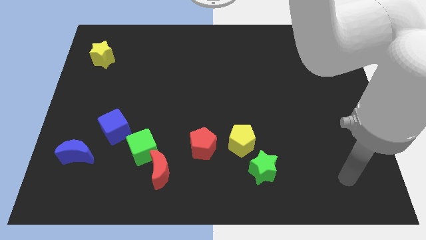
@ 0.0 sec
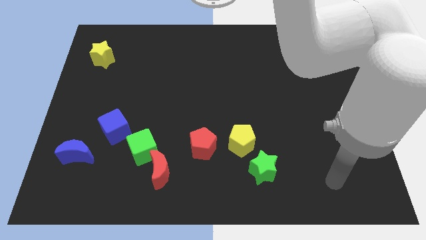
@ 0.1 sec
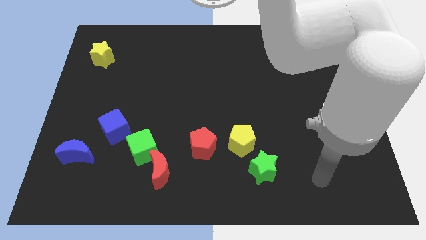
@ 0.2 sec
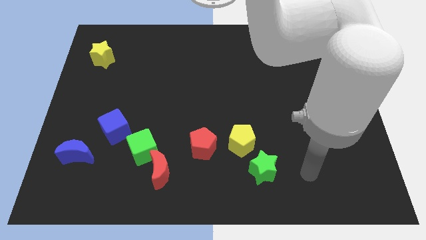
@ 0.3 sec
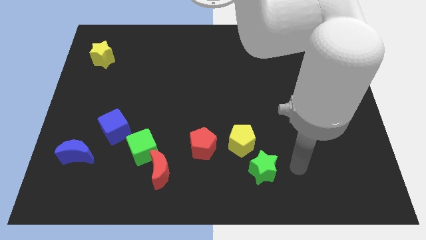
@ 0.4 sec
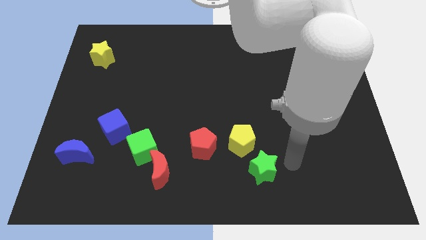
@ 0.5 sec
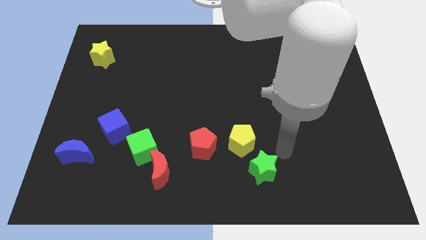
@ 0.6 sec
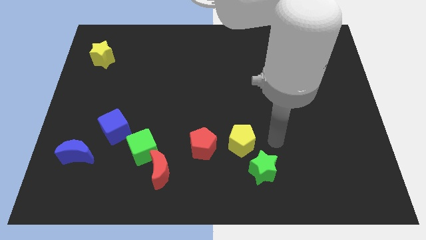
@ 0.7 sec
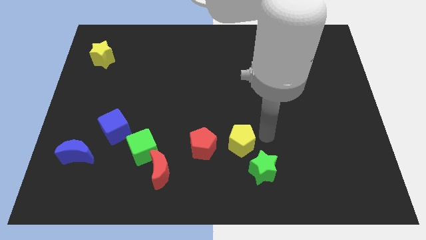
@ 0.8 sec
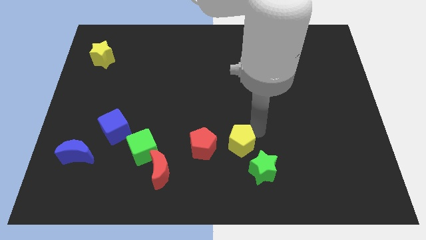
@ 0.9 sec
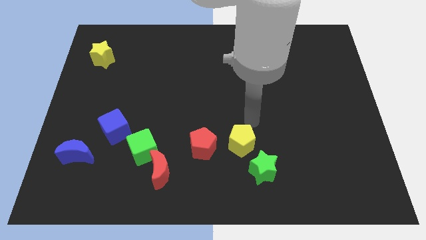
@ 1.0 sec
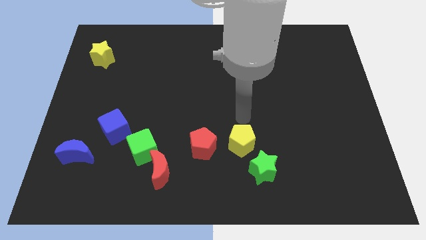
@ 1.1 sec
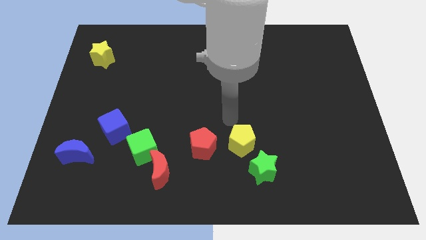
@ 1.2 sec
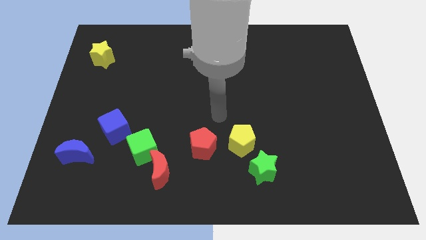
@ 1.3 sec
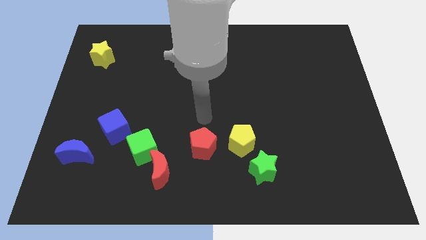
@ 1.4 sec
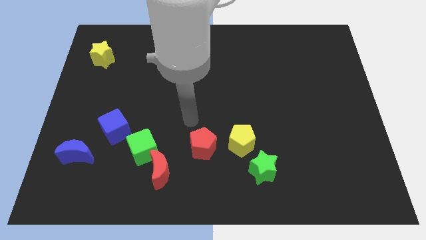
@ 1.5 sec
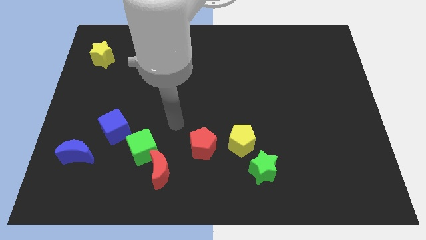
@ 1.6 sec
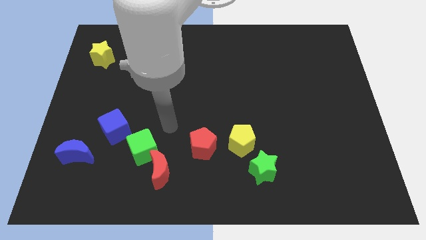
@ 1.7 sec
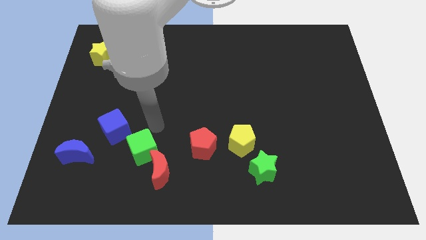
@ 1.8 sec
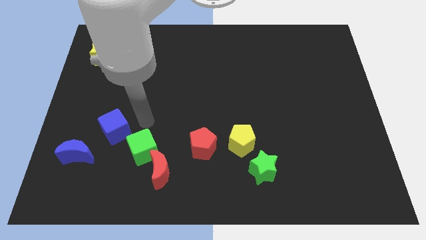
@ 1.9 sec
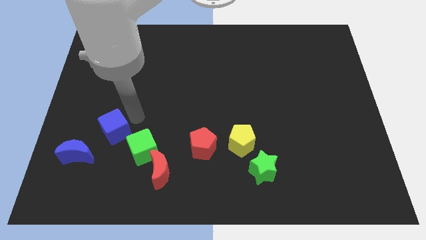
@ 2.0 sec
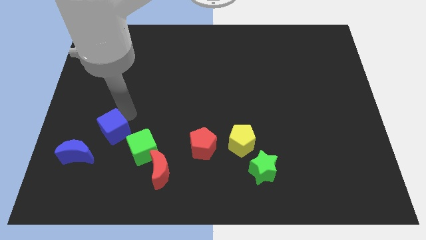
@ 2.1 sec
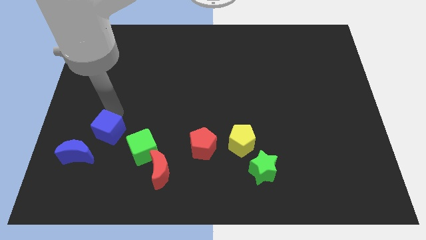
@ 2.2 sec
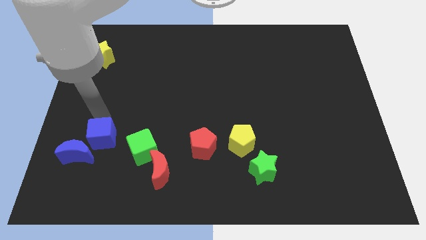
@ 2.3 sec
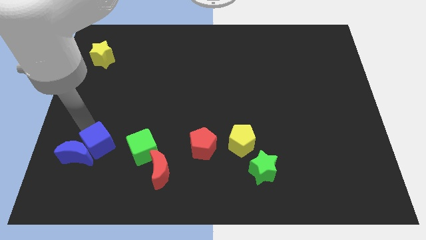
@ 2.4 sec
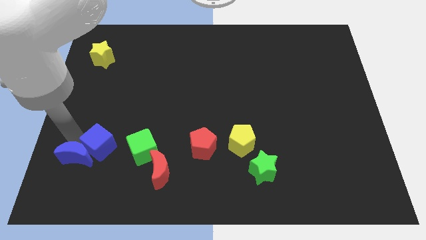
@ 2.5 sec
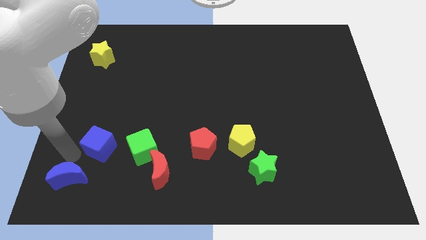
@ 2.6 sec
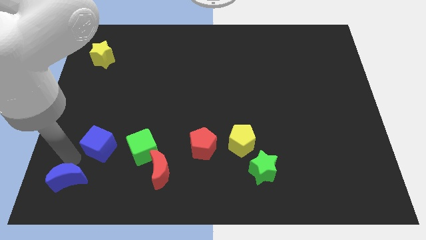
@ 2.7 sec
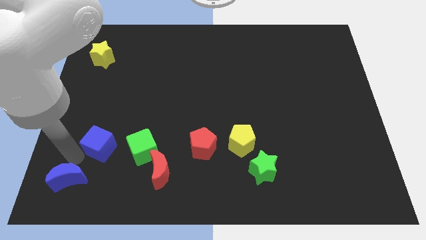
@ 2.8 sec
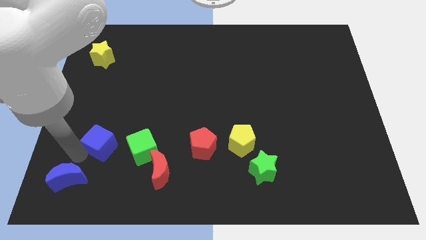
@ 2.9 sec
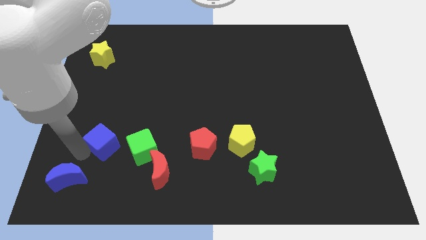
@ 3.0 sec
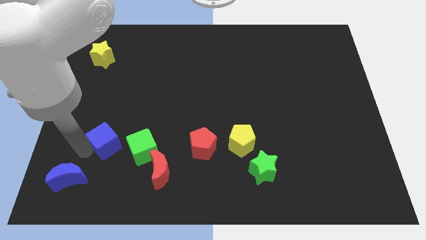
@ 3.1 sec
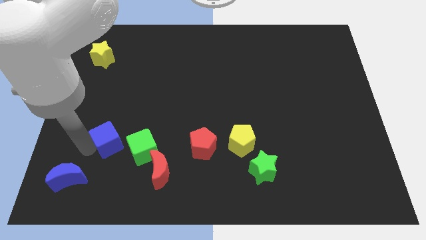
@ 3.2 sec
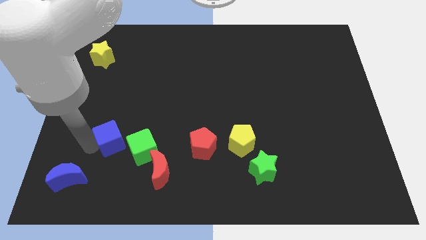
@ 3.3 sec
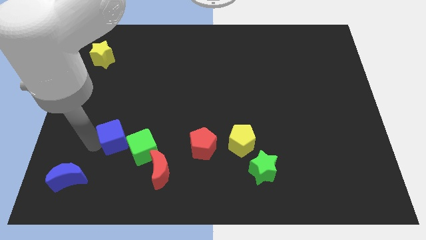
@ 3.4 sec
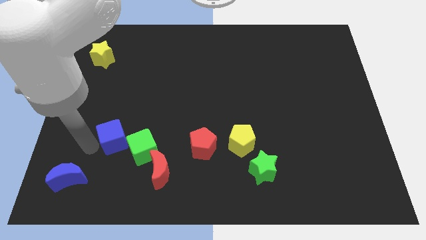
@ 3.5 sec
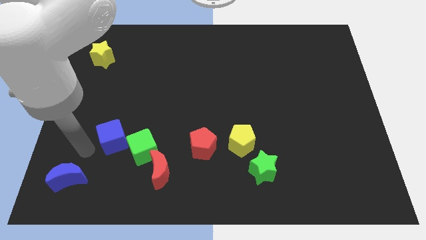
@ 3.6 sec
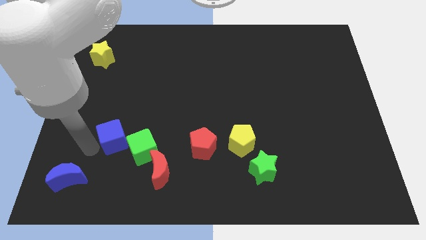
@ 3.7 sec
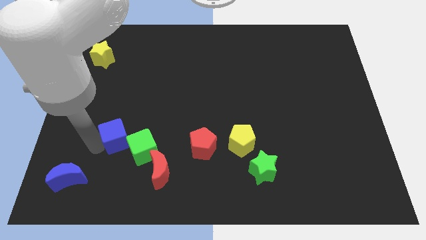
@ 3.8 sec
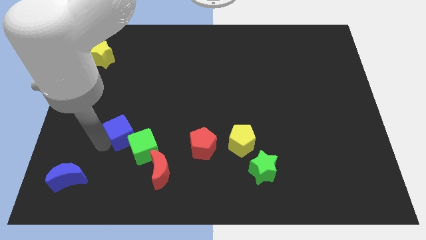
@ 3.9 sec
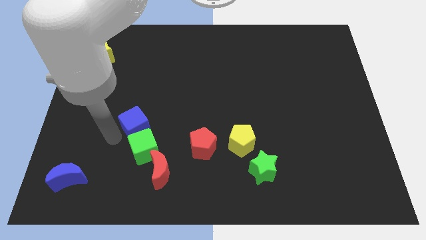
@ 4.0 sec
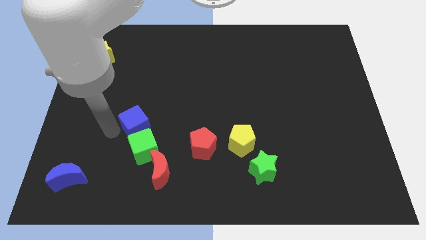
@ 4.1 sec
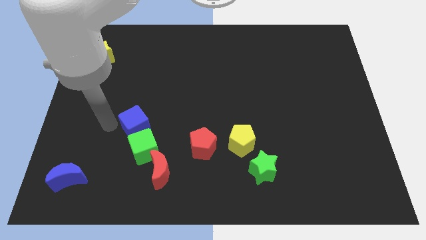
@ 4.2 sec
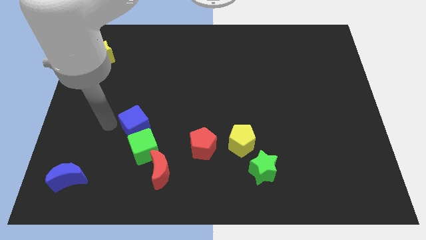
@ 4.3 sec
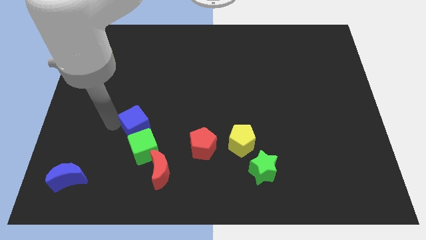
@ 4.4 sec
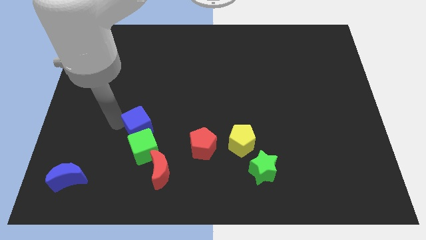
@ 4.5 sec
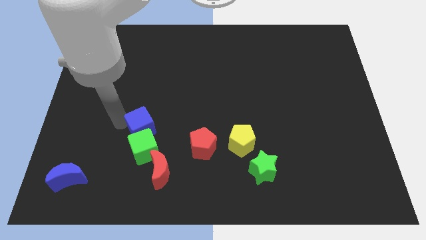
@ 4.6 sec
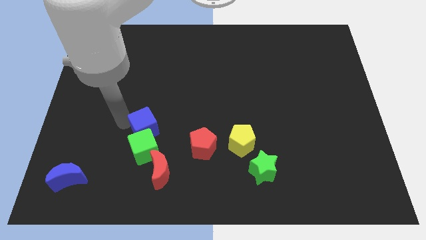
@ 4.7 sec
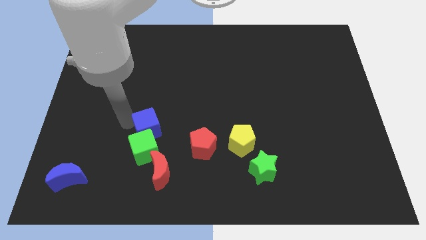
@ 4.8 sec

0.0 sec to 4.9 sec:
move the blue cube to the right slightly

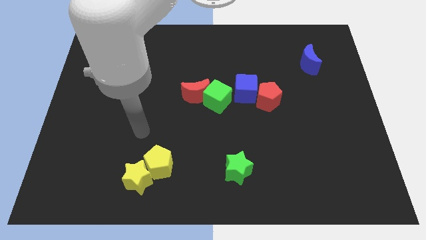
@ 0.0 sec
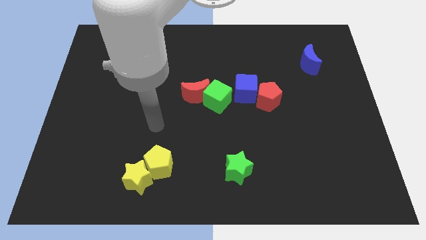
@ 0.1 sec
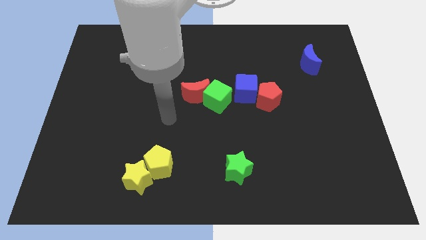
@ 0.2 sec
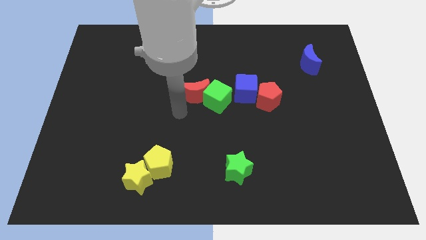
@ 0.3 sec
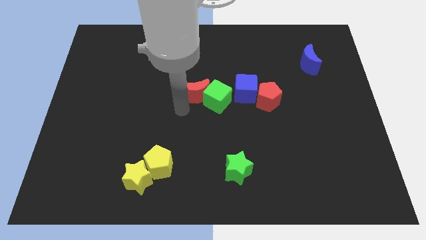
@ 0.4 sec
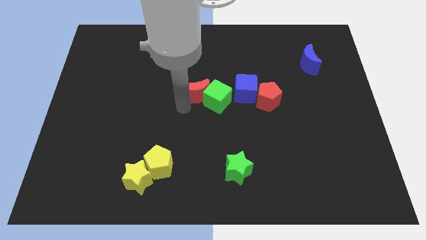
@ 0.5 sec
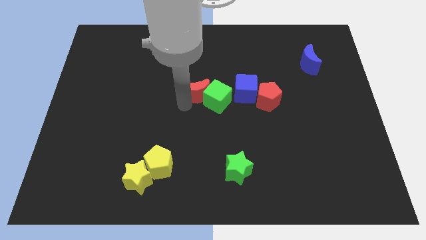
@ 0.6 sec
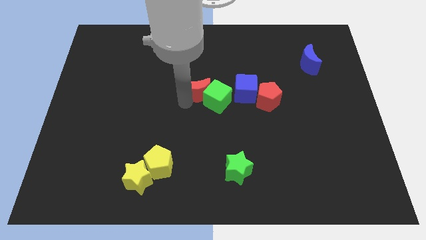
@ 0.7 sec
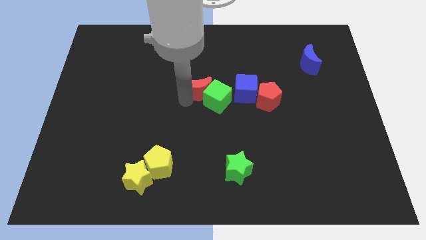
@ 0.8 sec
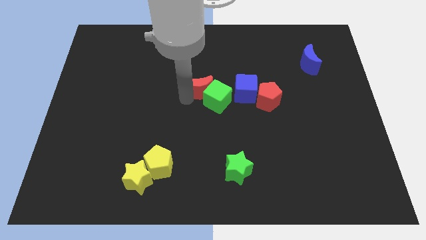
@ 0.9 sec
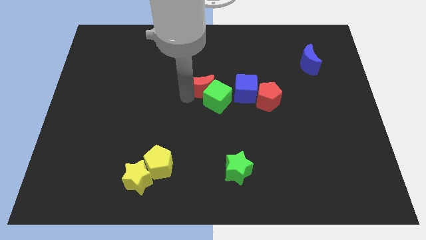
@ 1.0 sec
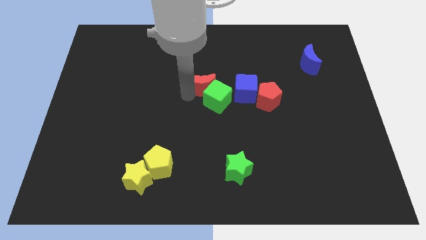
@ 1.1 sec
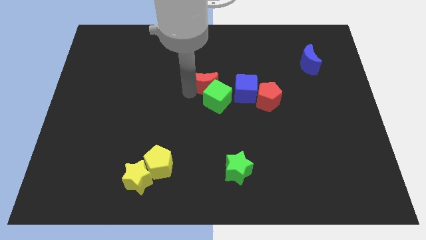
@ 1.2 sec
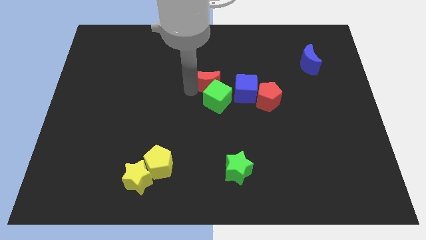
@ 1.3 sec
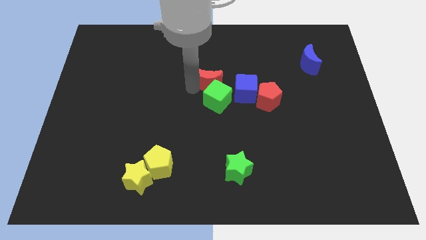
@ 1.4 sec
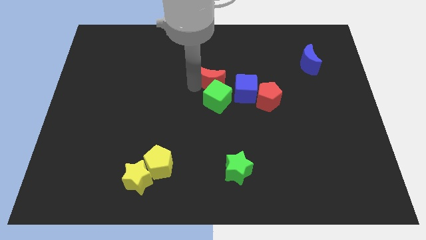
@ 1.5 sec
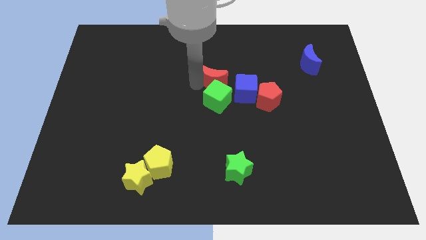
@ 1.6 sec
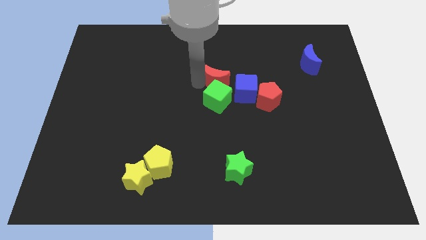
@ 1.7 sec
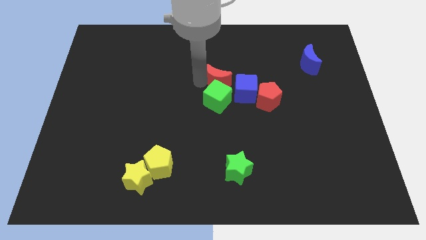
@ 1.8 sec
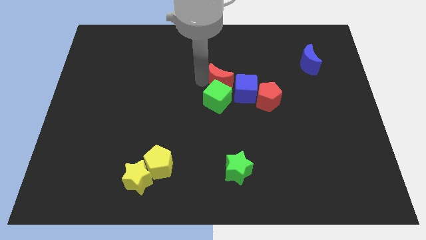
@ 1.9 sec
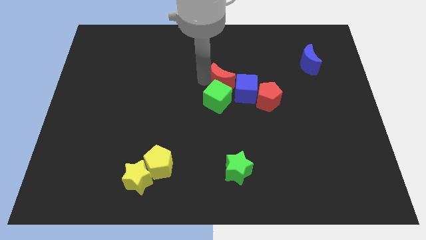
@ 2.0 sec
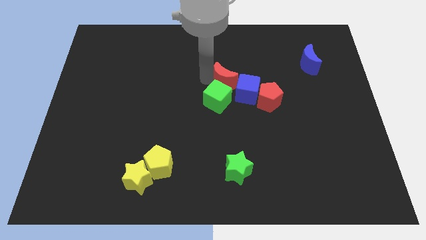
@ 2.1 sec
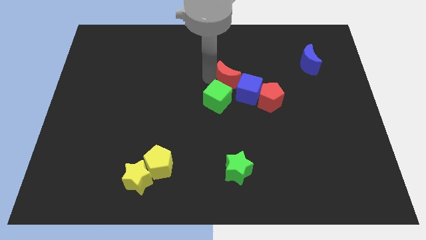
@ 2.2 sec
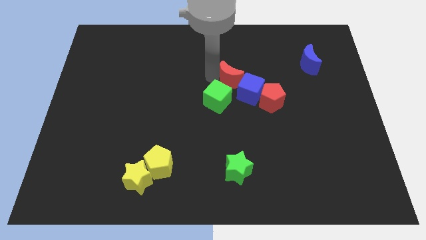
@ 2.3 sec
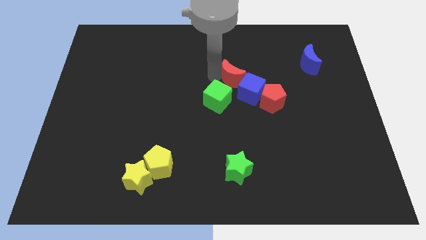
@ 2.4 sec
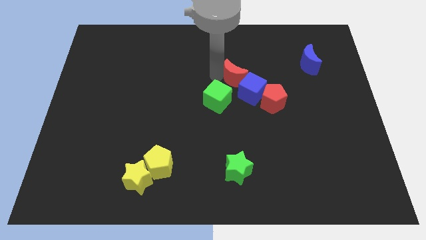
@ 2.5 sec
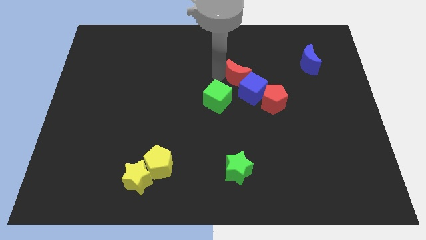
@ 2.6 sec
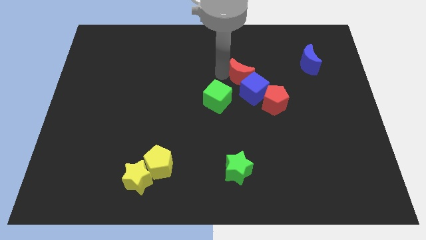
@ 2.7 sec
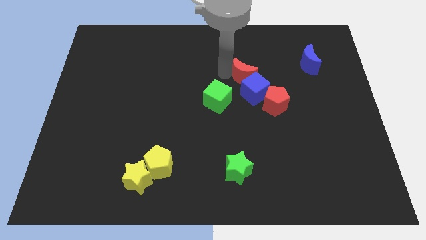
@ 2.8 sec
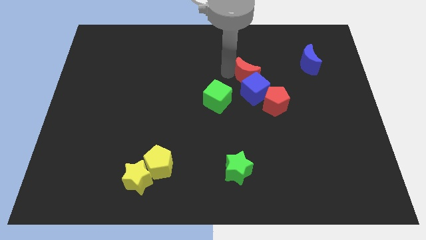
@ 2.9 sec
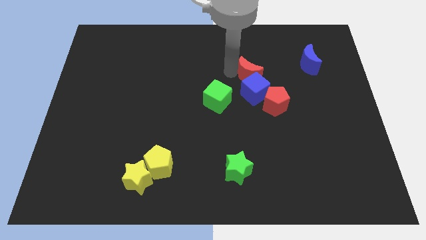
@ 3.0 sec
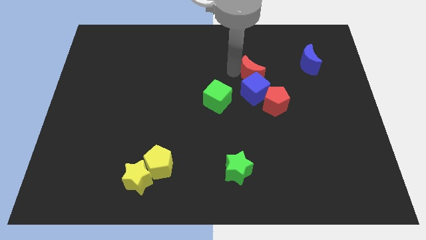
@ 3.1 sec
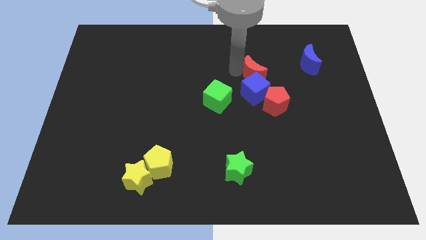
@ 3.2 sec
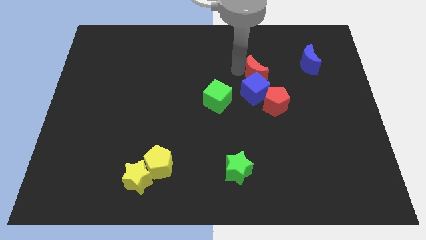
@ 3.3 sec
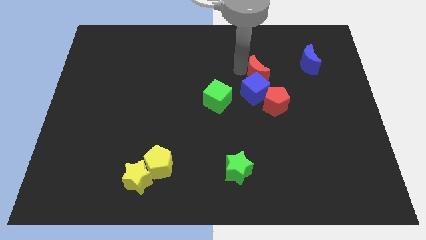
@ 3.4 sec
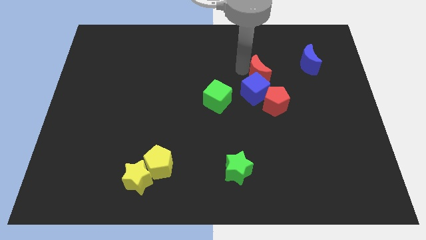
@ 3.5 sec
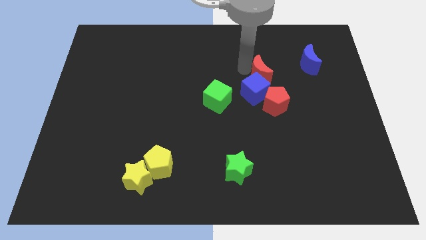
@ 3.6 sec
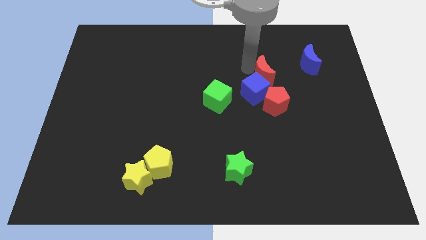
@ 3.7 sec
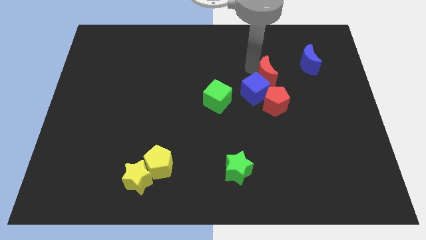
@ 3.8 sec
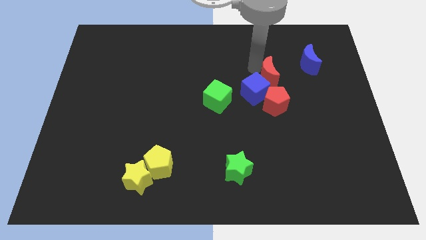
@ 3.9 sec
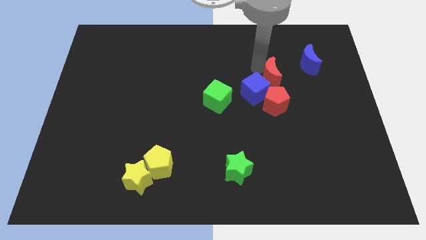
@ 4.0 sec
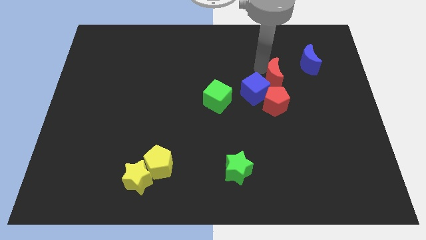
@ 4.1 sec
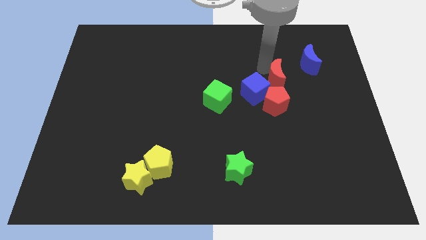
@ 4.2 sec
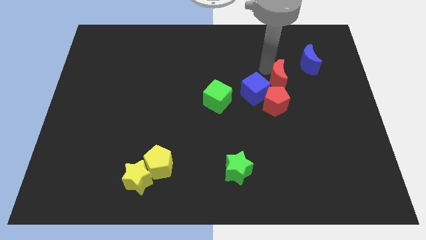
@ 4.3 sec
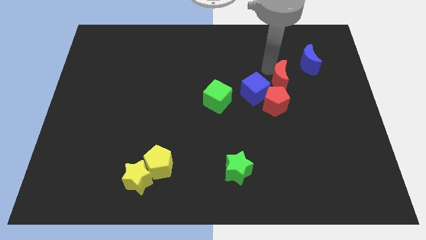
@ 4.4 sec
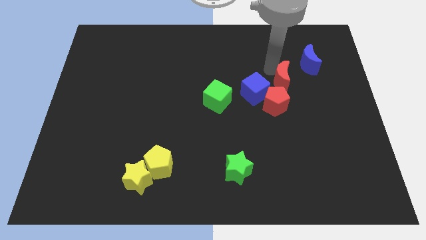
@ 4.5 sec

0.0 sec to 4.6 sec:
push the red moon to the right
